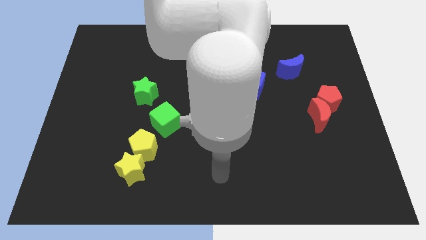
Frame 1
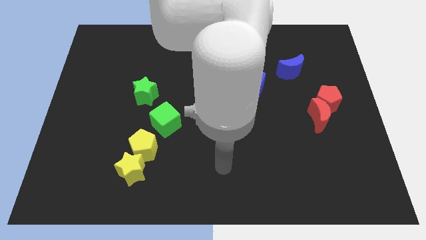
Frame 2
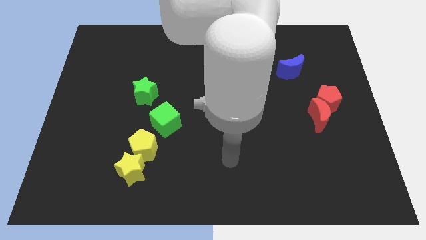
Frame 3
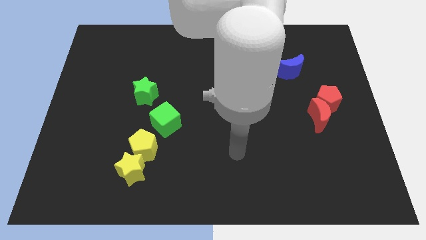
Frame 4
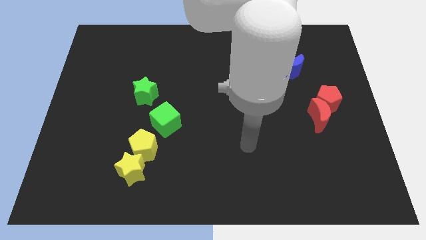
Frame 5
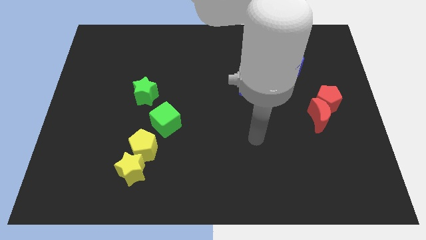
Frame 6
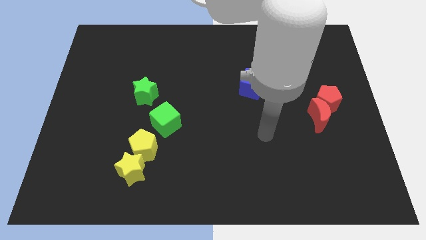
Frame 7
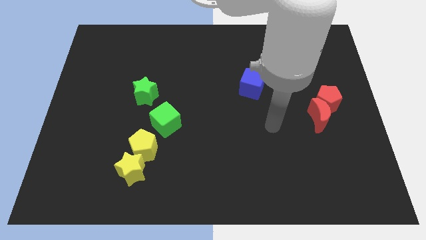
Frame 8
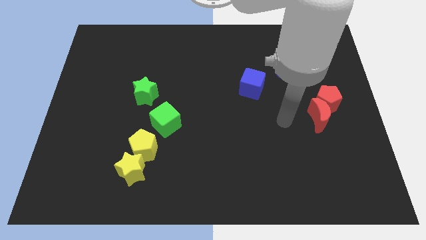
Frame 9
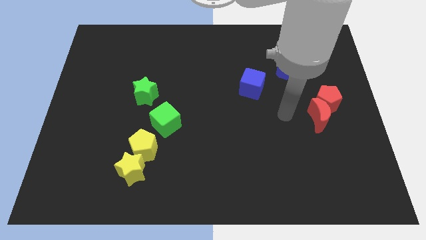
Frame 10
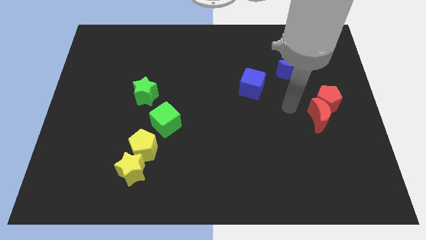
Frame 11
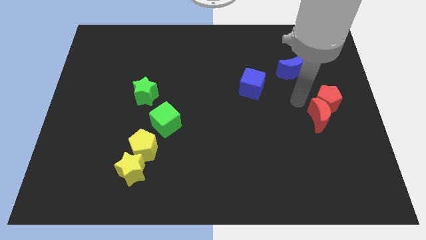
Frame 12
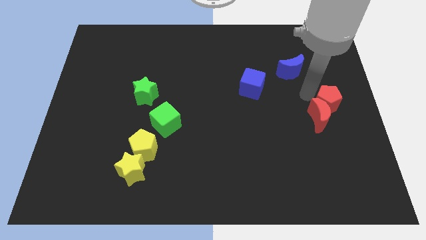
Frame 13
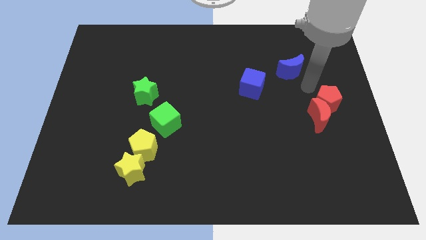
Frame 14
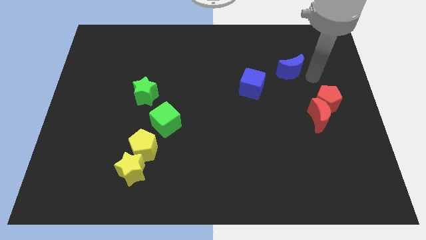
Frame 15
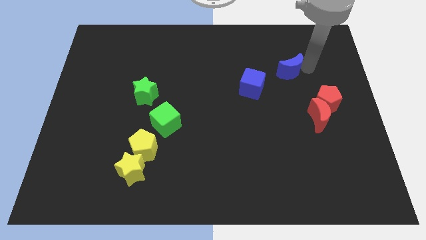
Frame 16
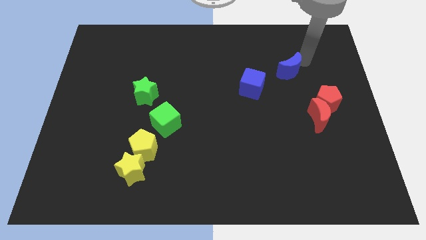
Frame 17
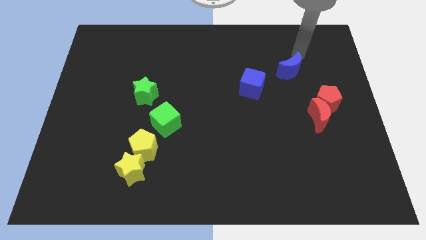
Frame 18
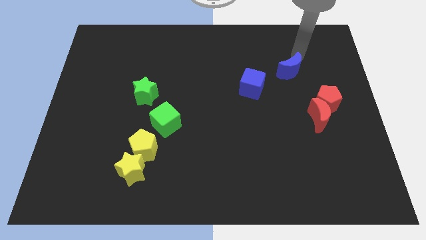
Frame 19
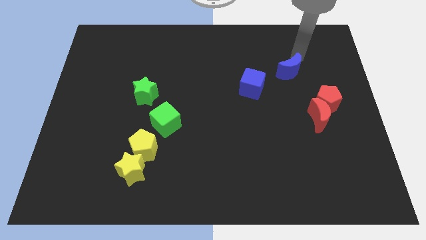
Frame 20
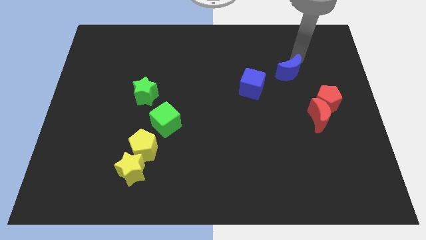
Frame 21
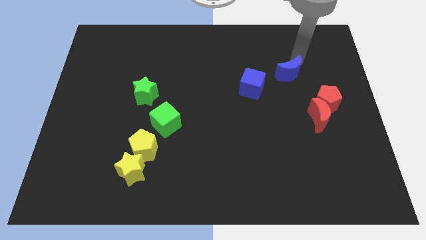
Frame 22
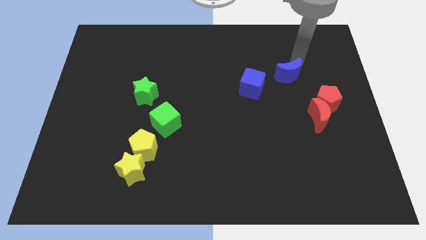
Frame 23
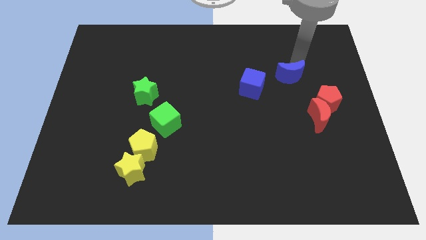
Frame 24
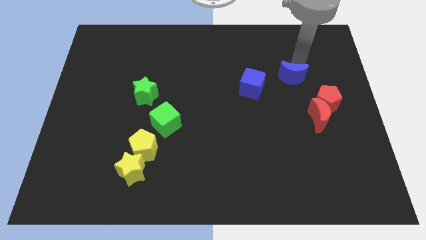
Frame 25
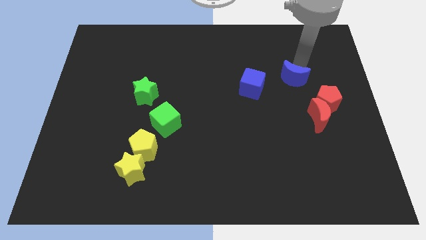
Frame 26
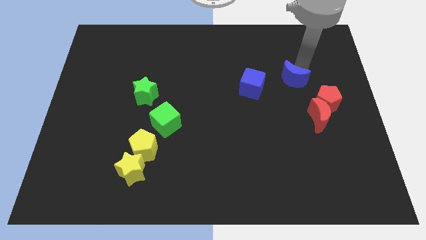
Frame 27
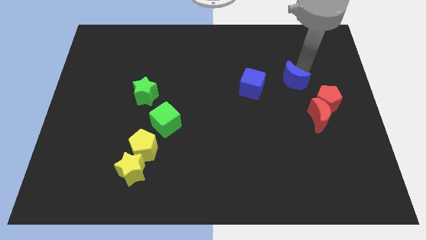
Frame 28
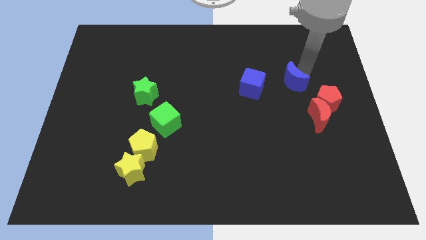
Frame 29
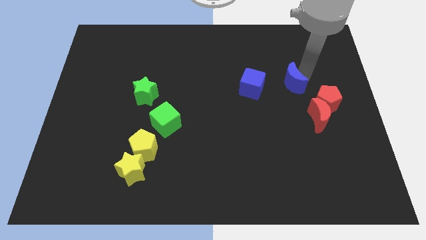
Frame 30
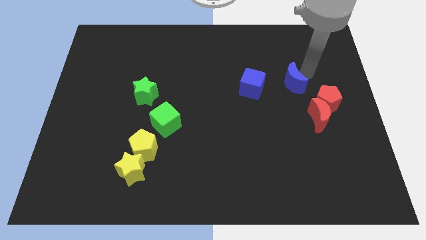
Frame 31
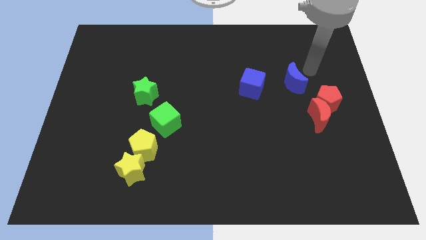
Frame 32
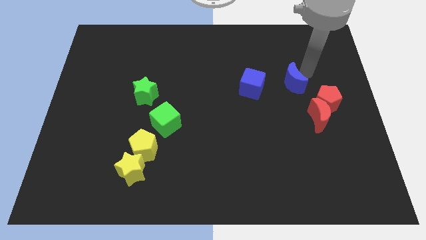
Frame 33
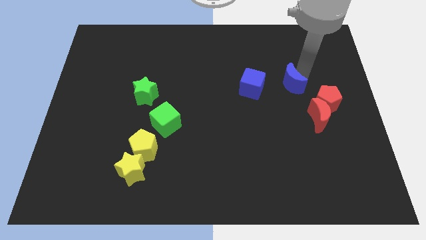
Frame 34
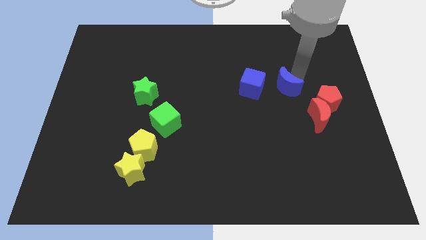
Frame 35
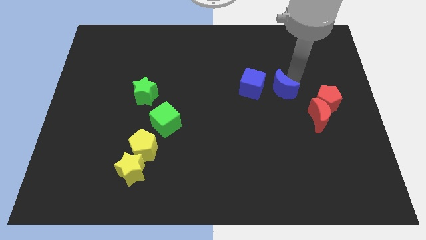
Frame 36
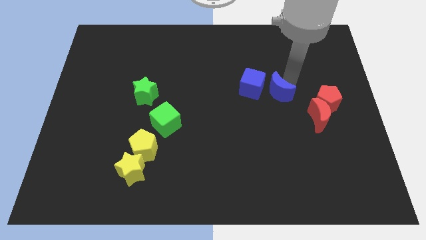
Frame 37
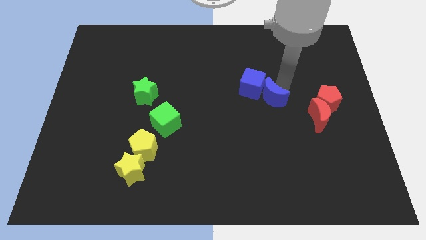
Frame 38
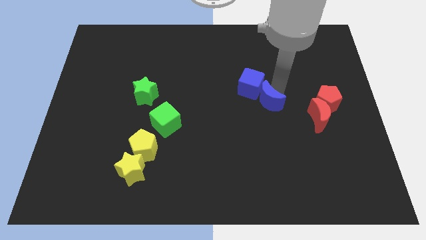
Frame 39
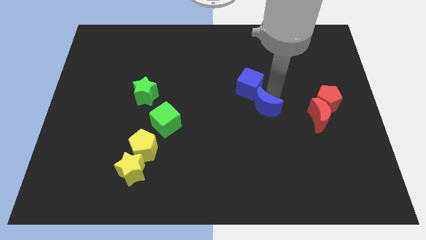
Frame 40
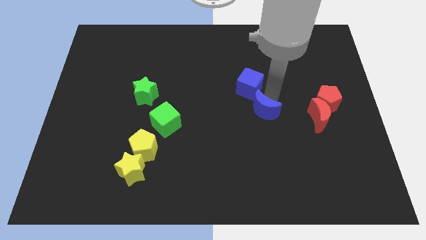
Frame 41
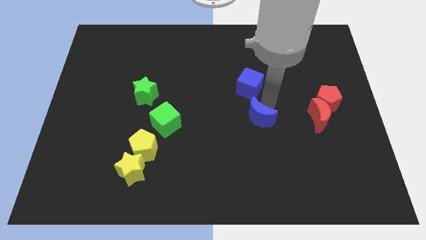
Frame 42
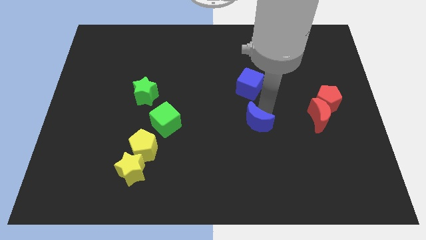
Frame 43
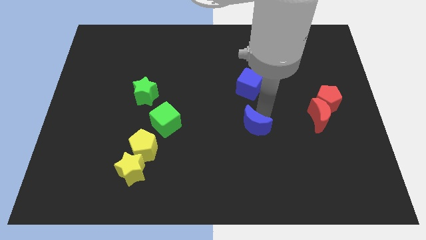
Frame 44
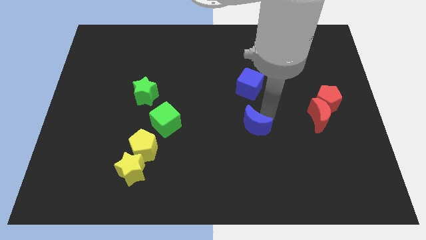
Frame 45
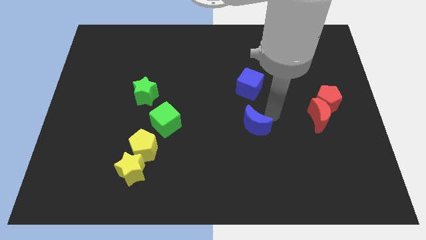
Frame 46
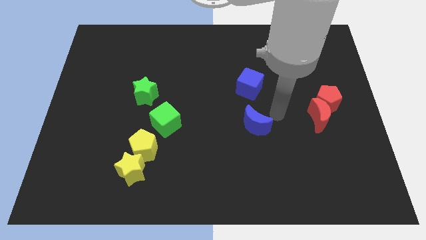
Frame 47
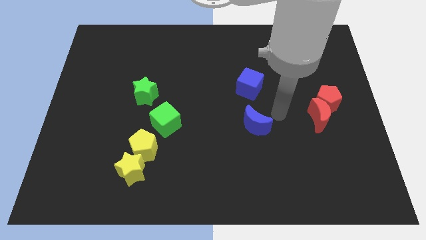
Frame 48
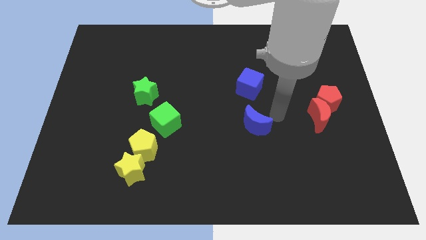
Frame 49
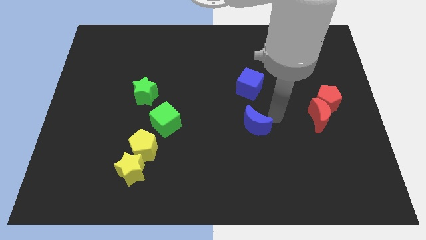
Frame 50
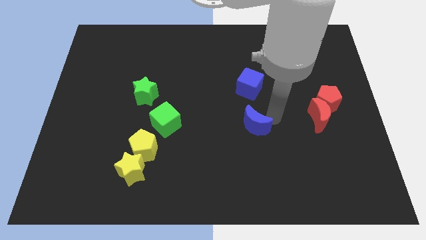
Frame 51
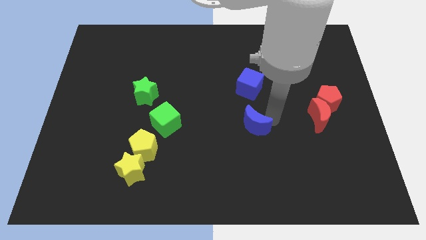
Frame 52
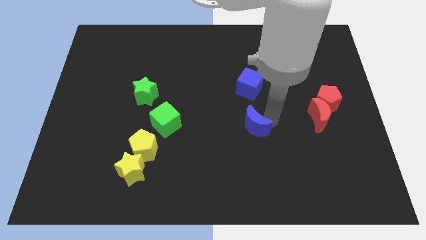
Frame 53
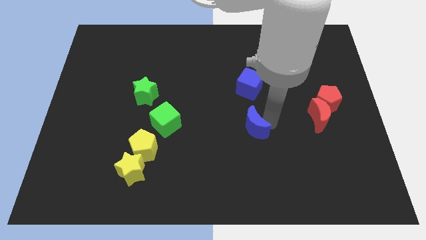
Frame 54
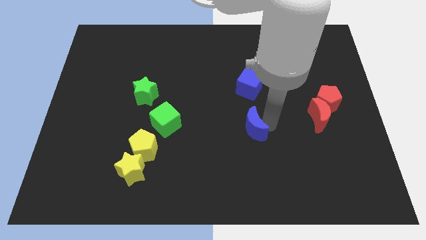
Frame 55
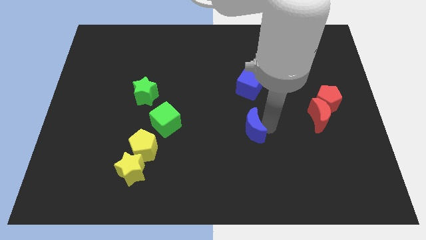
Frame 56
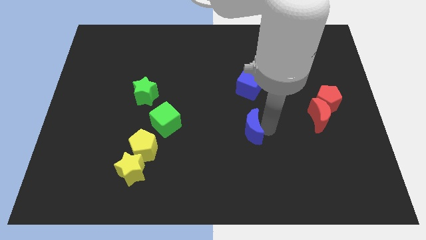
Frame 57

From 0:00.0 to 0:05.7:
push the blue moon down and left diagonally

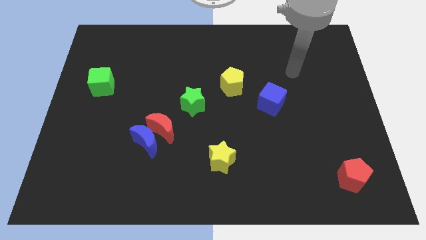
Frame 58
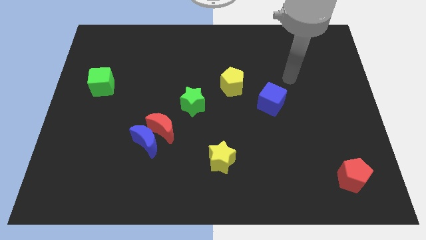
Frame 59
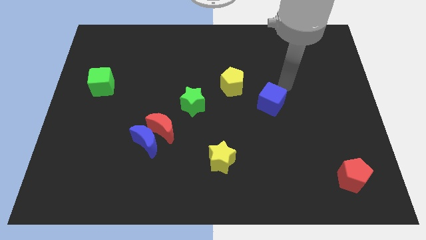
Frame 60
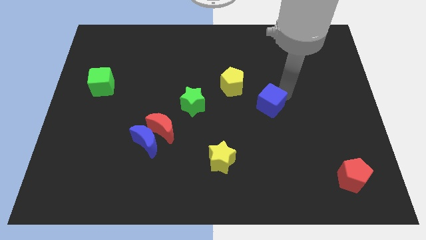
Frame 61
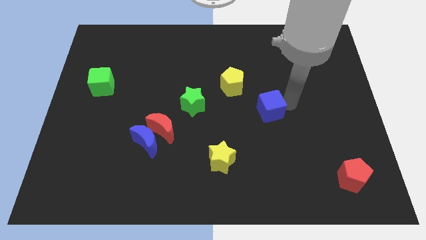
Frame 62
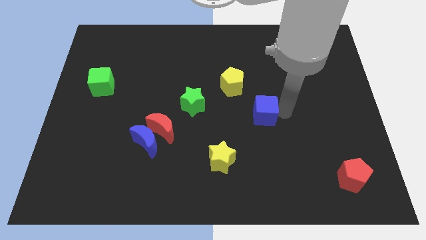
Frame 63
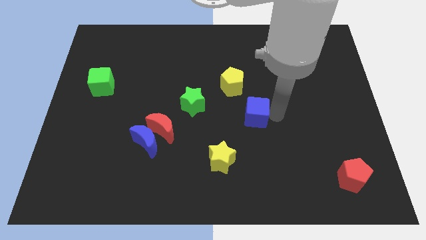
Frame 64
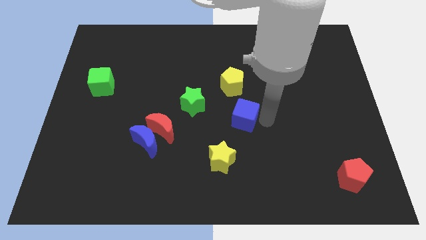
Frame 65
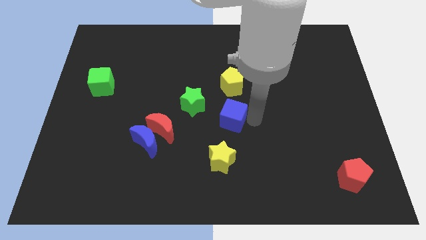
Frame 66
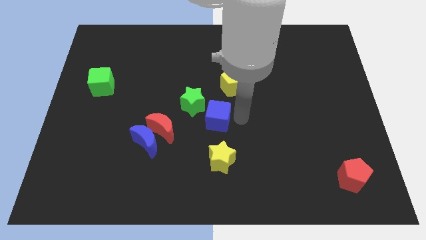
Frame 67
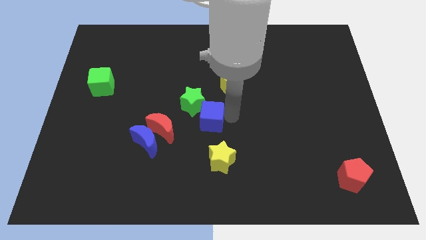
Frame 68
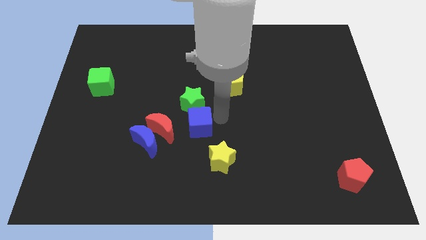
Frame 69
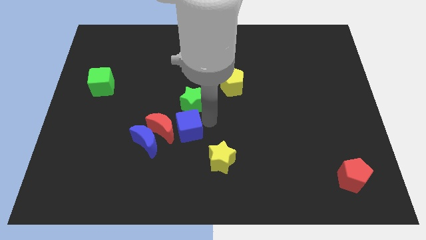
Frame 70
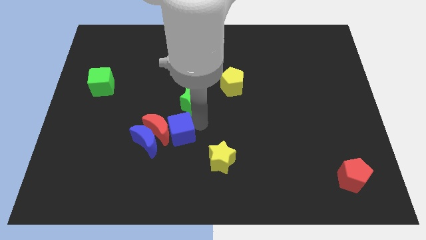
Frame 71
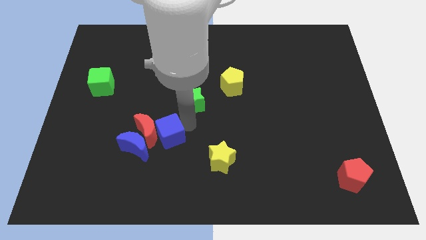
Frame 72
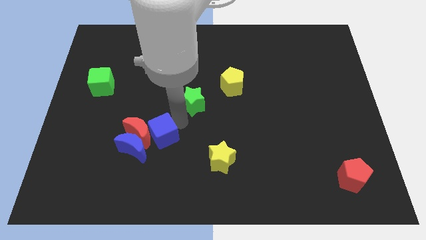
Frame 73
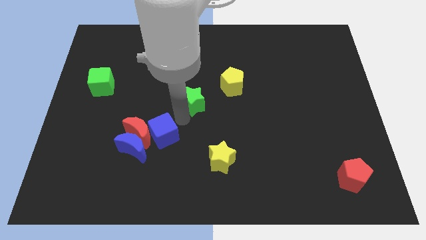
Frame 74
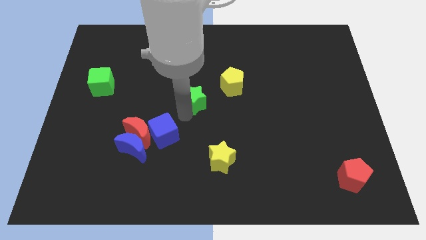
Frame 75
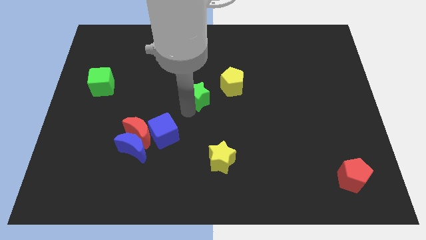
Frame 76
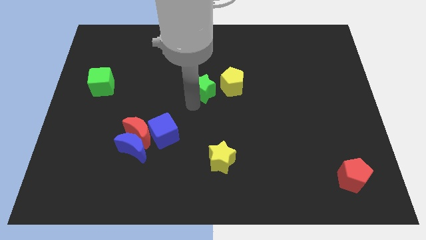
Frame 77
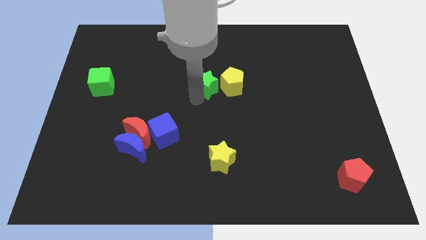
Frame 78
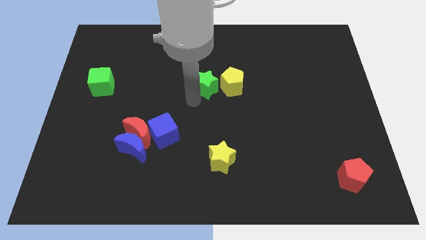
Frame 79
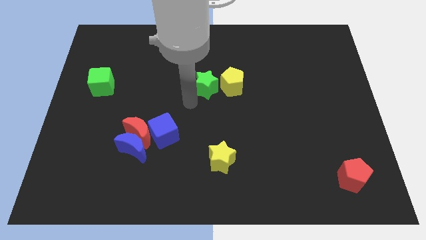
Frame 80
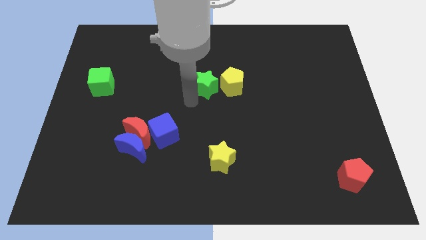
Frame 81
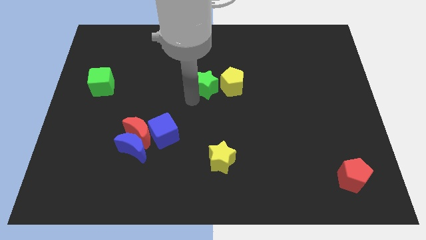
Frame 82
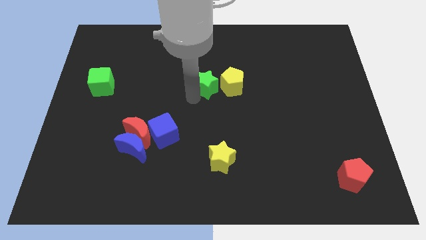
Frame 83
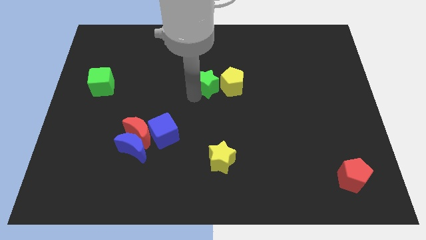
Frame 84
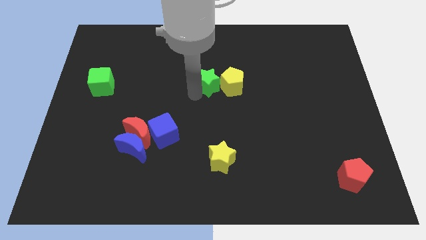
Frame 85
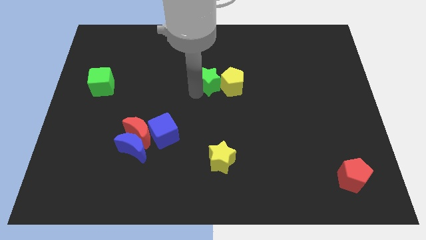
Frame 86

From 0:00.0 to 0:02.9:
move the green star upwards and to the right a bit
